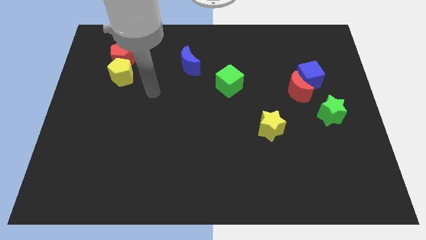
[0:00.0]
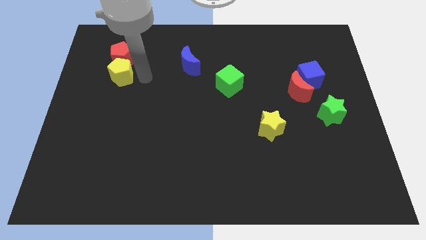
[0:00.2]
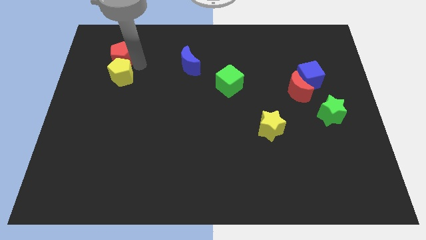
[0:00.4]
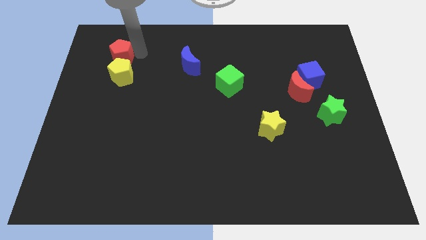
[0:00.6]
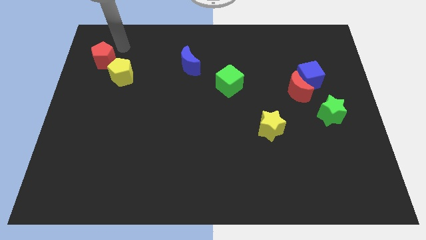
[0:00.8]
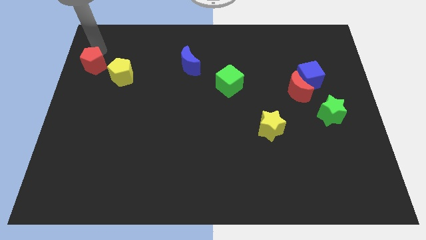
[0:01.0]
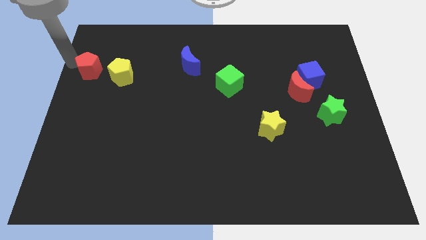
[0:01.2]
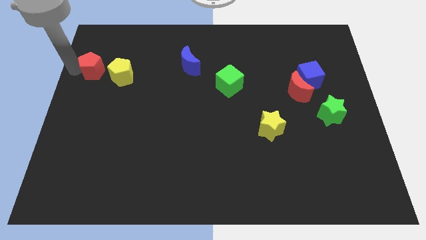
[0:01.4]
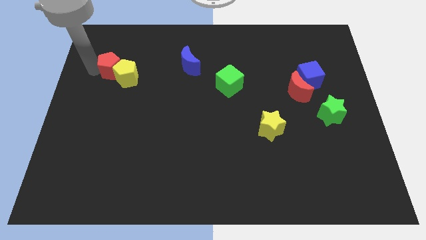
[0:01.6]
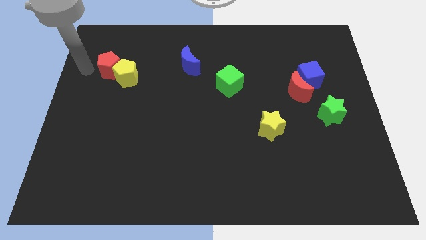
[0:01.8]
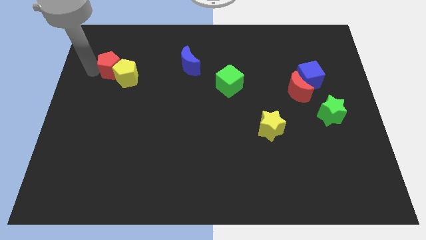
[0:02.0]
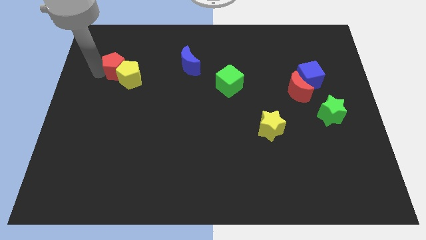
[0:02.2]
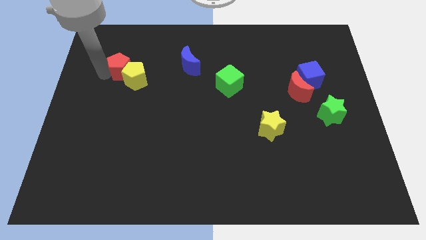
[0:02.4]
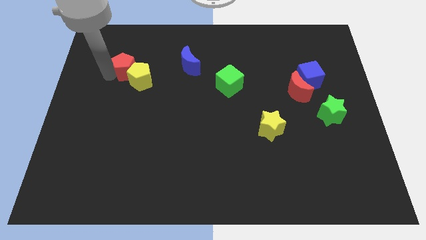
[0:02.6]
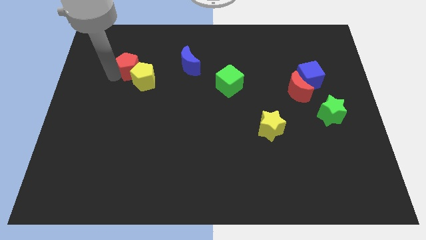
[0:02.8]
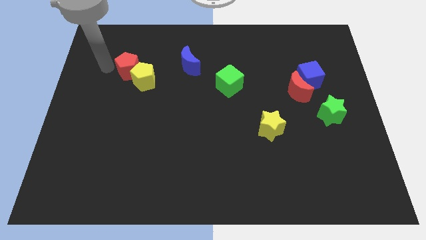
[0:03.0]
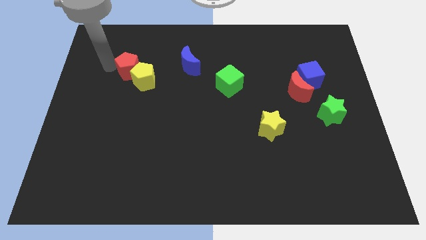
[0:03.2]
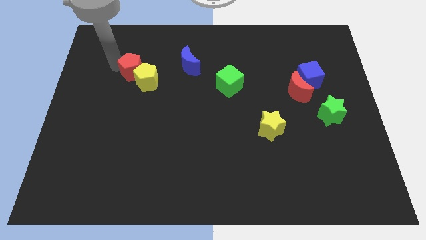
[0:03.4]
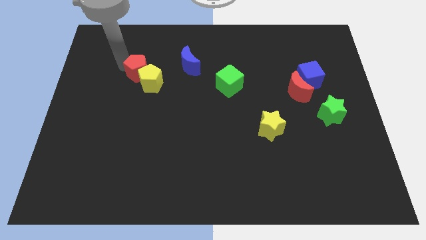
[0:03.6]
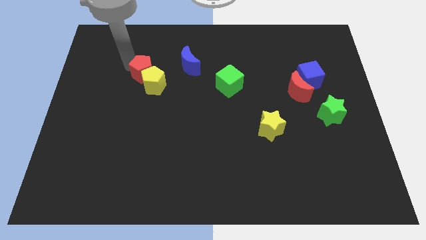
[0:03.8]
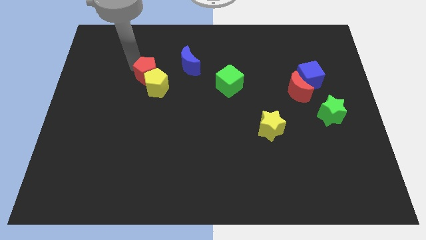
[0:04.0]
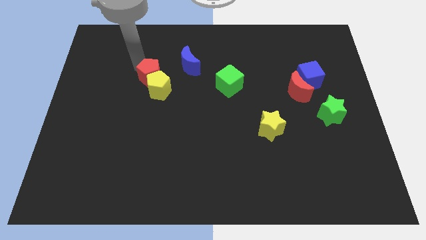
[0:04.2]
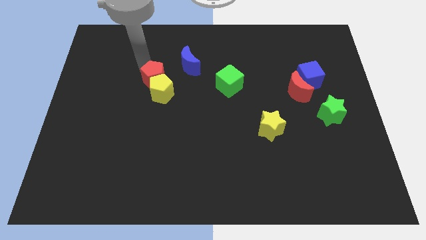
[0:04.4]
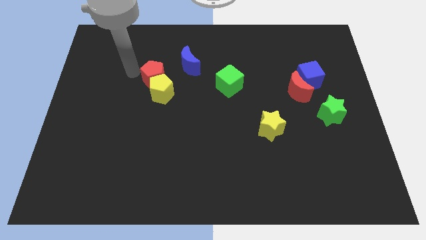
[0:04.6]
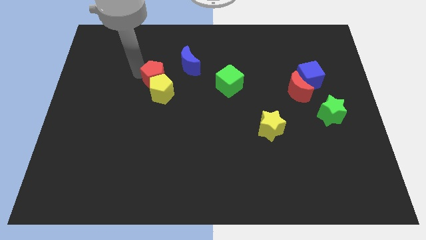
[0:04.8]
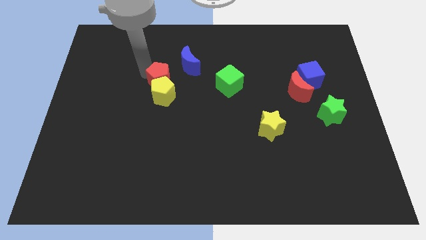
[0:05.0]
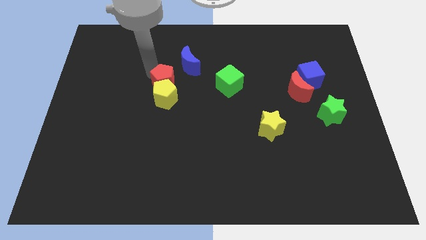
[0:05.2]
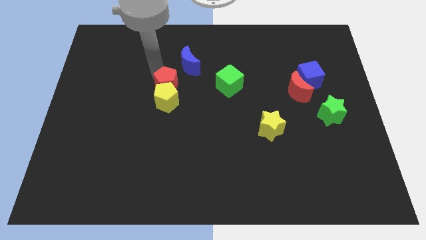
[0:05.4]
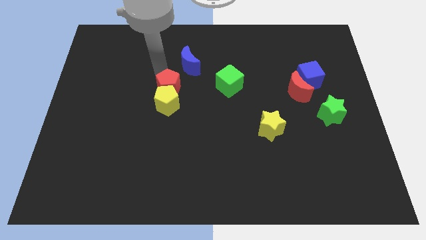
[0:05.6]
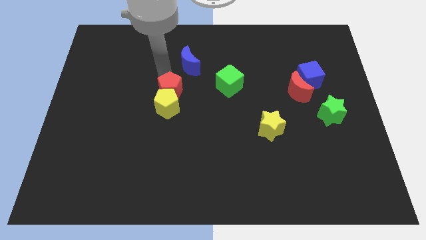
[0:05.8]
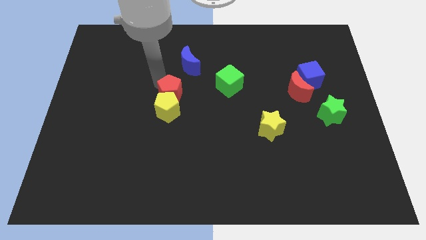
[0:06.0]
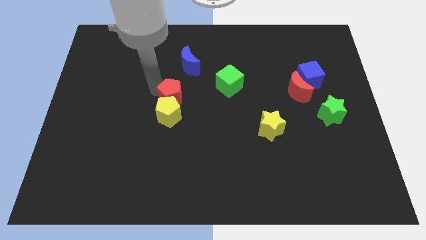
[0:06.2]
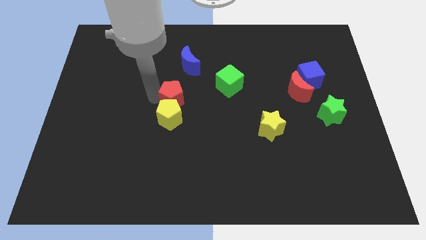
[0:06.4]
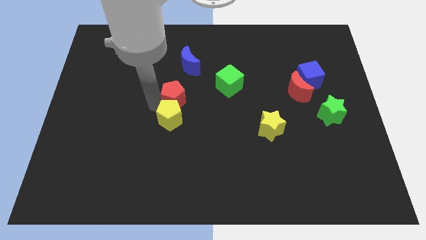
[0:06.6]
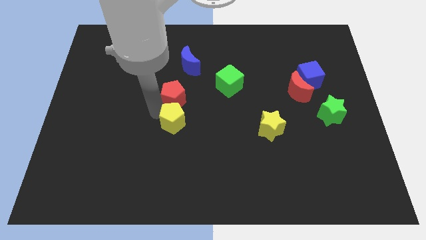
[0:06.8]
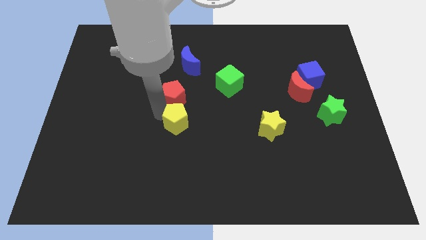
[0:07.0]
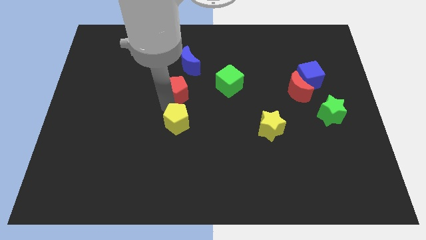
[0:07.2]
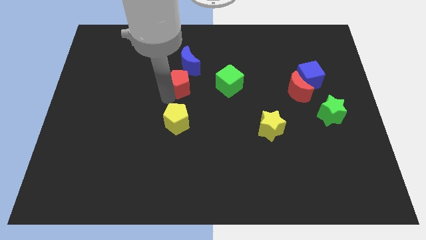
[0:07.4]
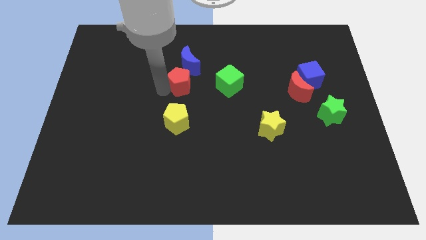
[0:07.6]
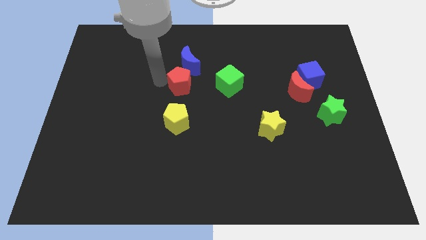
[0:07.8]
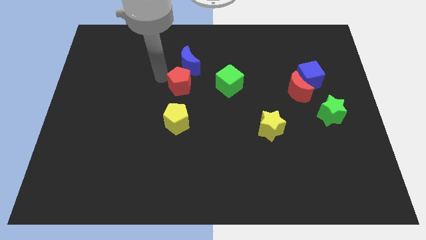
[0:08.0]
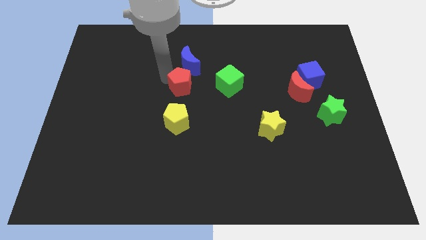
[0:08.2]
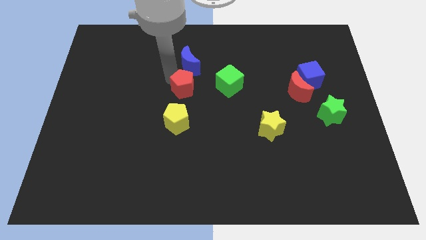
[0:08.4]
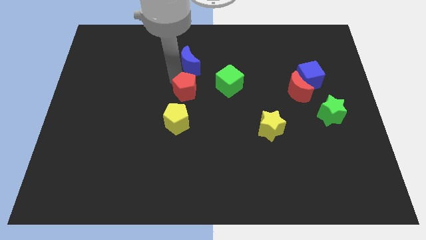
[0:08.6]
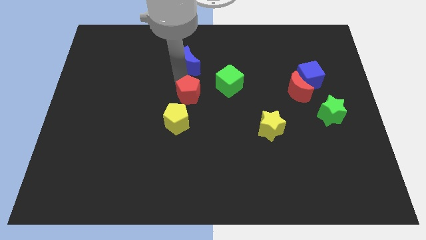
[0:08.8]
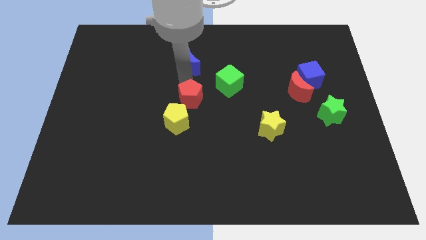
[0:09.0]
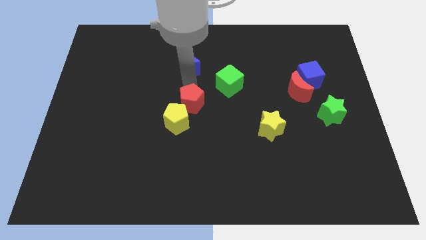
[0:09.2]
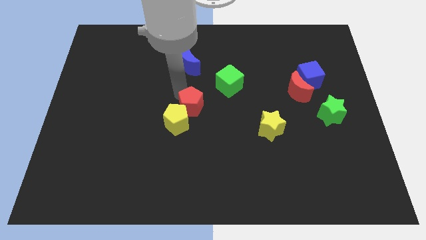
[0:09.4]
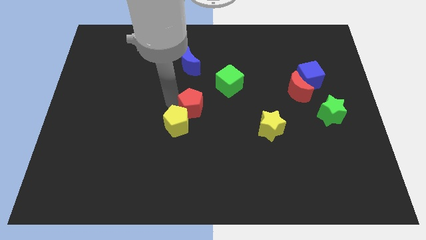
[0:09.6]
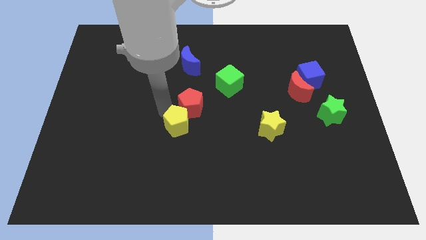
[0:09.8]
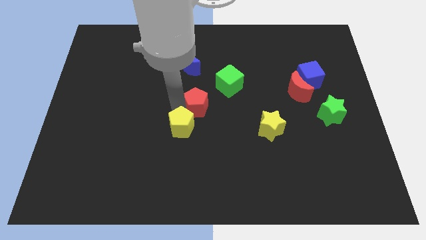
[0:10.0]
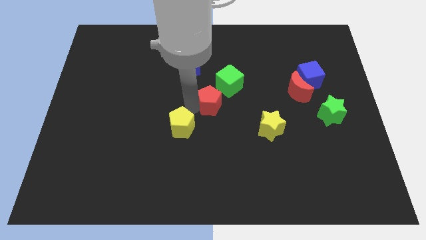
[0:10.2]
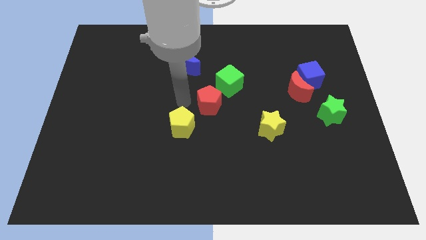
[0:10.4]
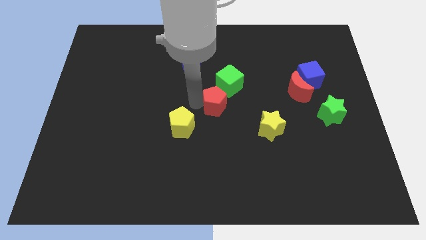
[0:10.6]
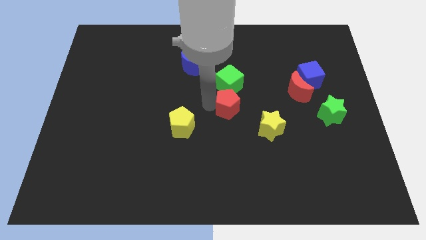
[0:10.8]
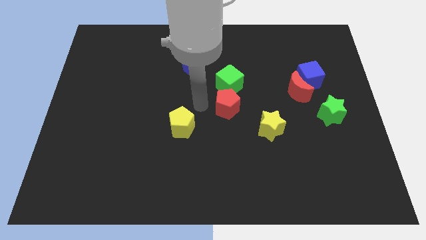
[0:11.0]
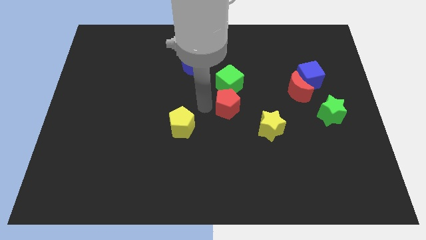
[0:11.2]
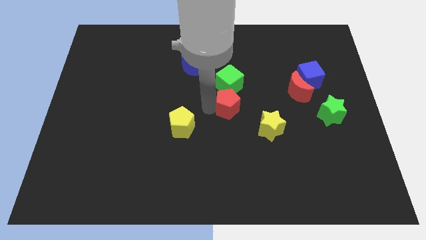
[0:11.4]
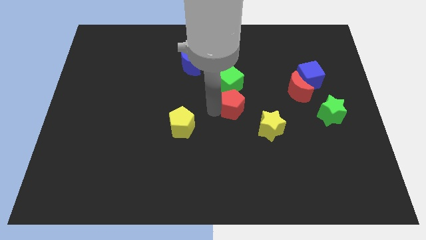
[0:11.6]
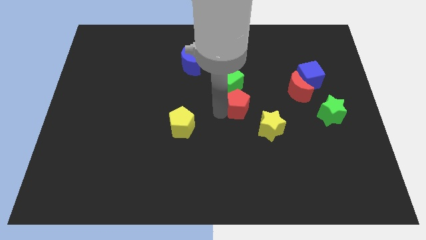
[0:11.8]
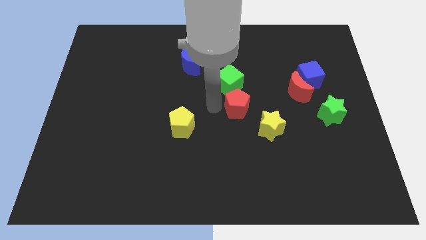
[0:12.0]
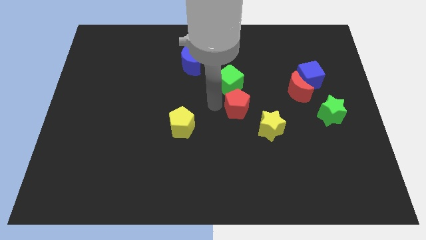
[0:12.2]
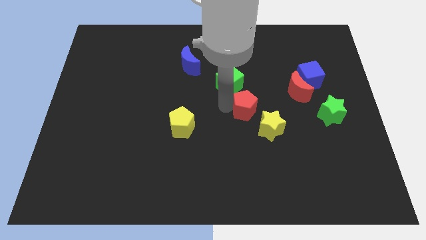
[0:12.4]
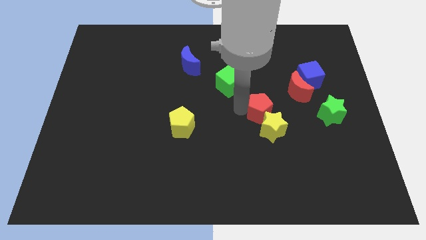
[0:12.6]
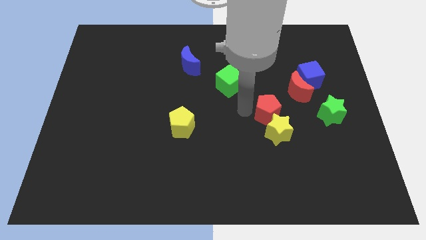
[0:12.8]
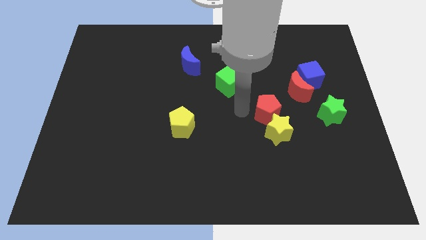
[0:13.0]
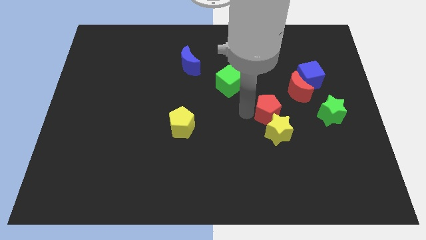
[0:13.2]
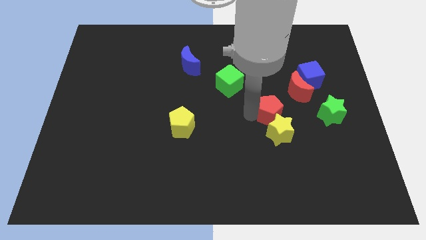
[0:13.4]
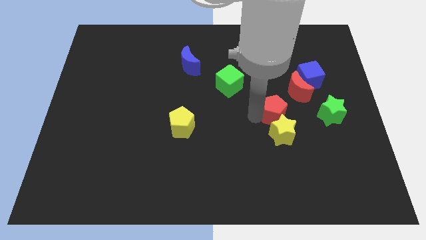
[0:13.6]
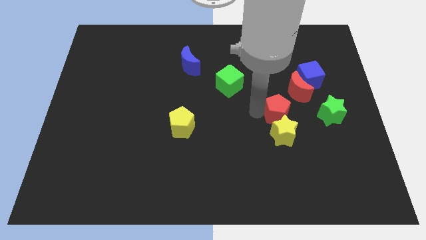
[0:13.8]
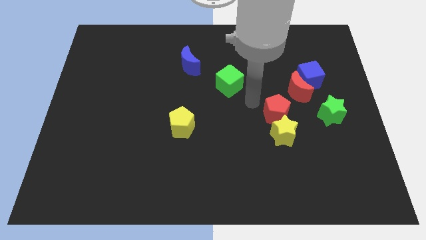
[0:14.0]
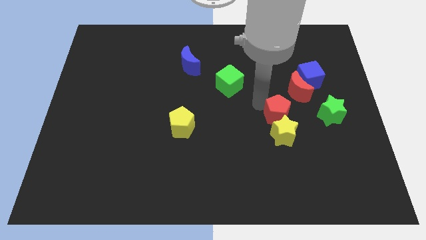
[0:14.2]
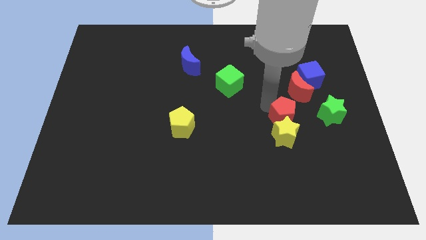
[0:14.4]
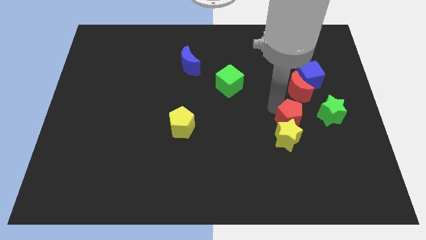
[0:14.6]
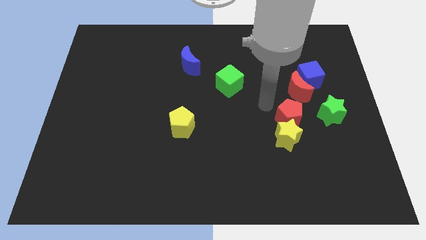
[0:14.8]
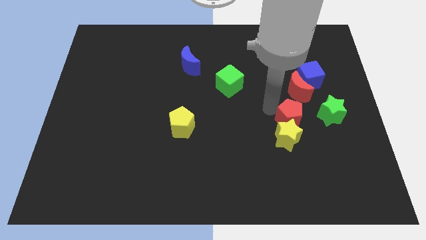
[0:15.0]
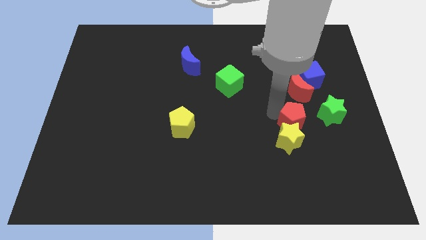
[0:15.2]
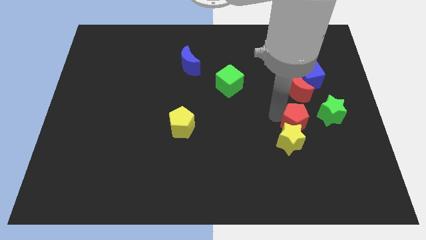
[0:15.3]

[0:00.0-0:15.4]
push the red pentagon to the bottom left of the green star

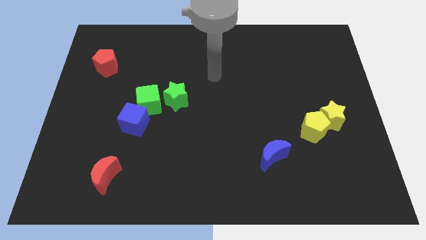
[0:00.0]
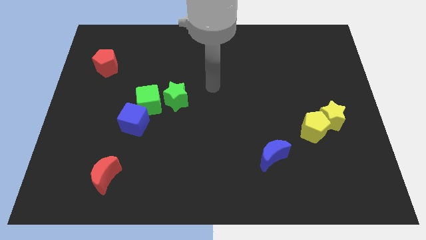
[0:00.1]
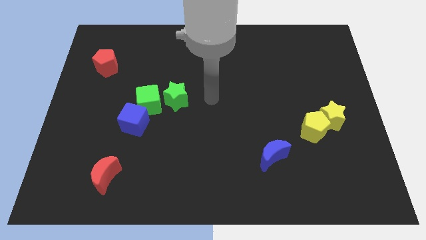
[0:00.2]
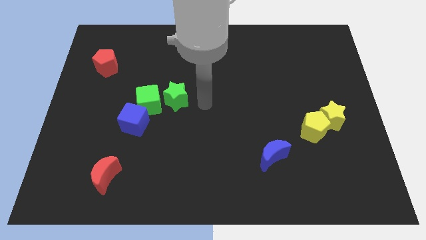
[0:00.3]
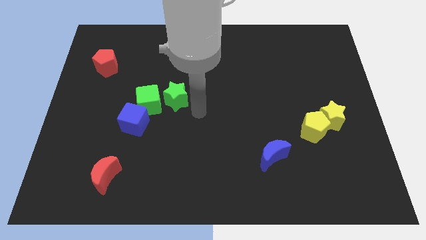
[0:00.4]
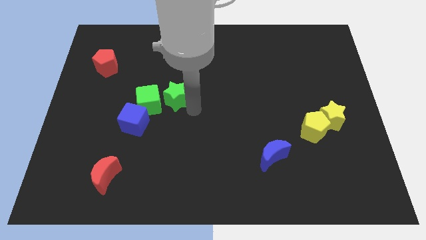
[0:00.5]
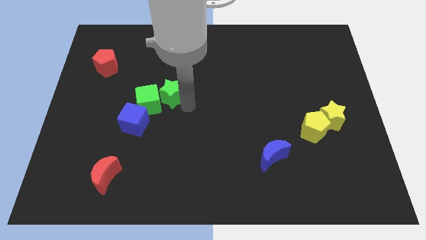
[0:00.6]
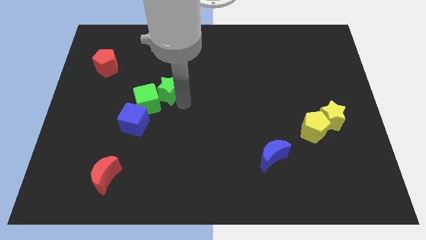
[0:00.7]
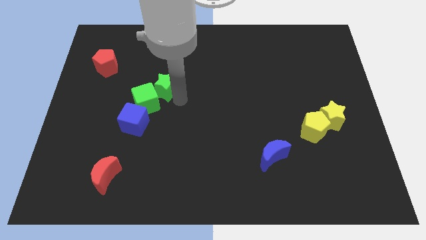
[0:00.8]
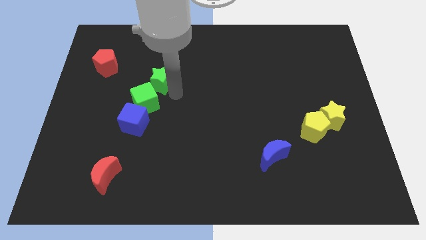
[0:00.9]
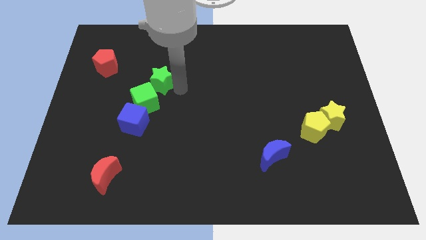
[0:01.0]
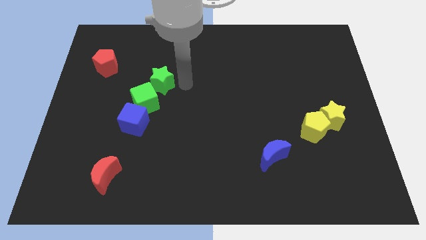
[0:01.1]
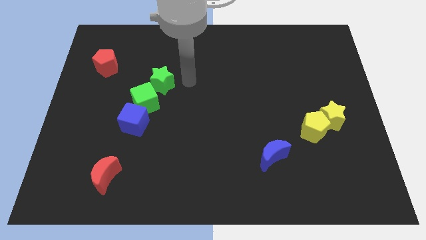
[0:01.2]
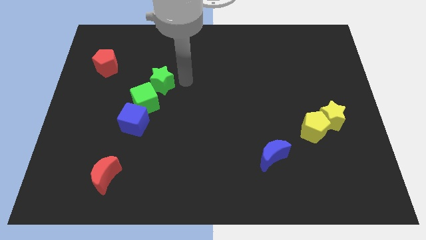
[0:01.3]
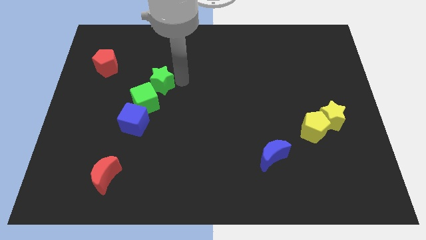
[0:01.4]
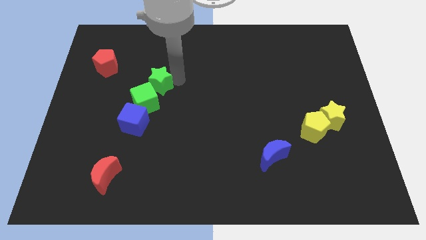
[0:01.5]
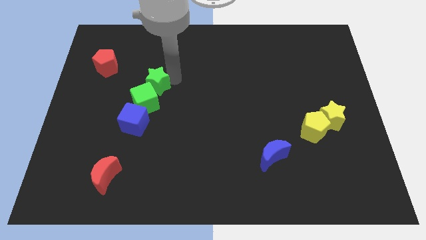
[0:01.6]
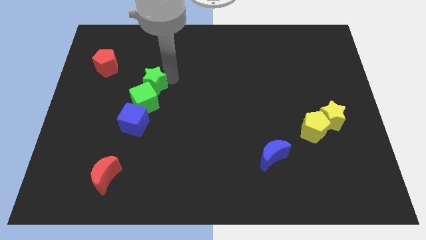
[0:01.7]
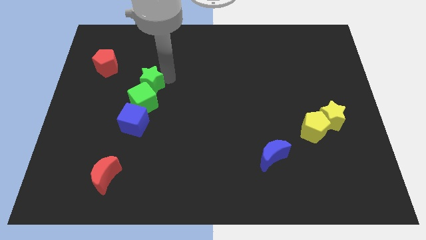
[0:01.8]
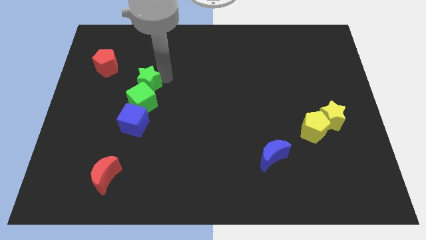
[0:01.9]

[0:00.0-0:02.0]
move the green star diagonally up and to the left of the green cube
